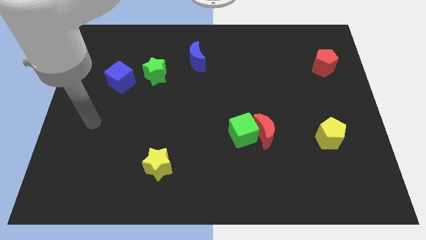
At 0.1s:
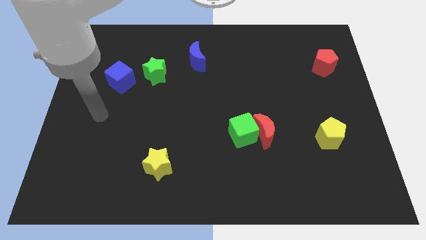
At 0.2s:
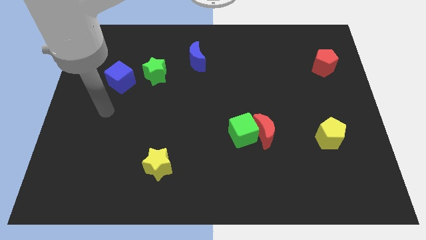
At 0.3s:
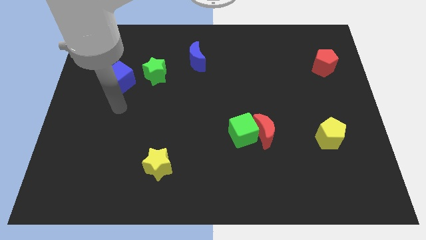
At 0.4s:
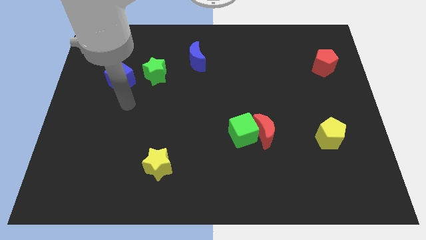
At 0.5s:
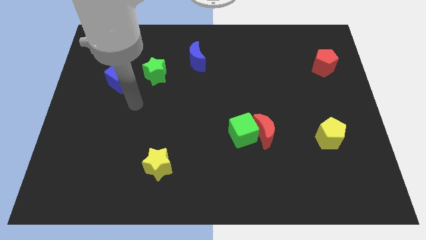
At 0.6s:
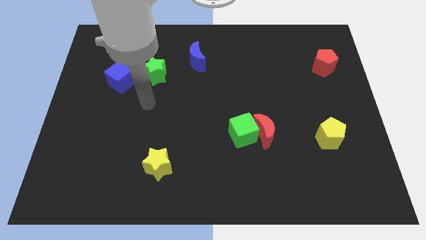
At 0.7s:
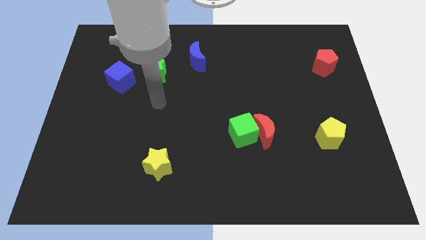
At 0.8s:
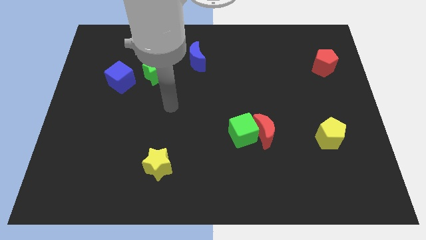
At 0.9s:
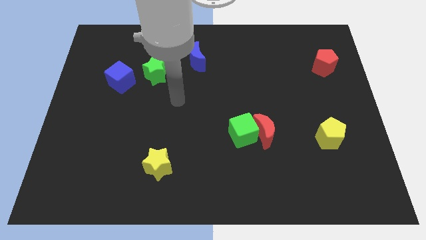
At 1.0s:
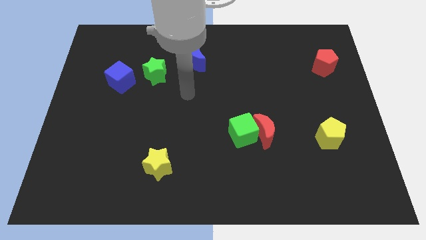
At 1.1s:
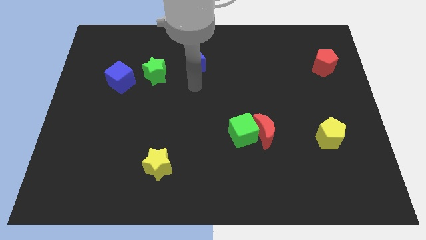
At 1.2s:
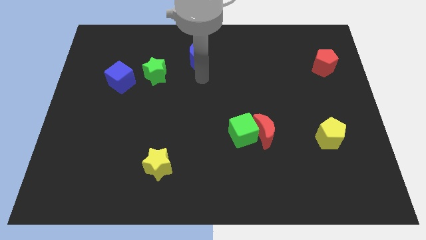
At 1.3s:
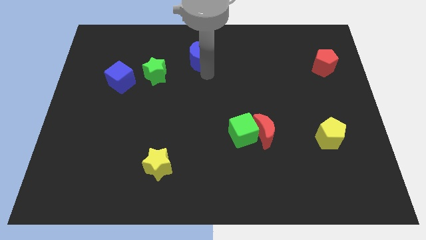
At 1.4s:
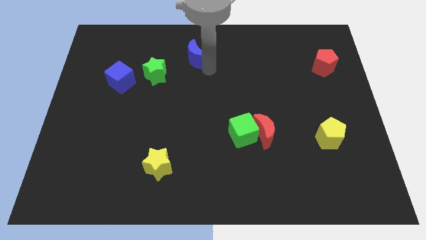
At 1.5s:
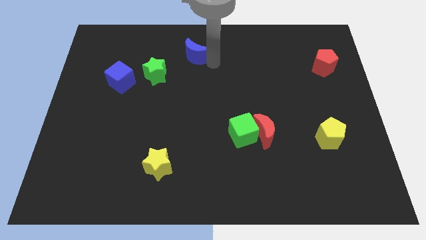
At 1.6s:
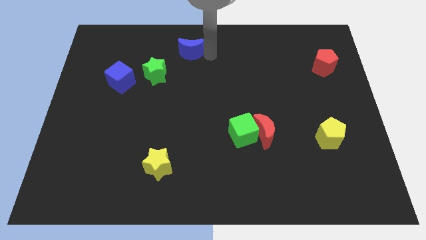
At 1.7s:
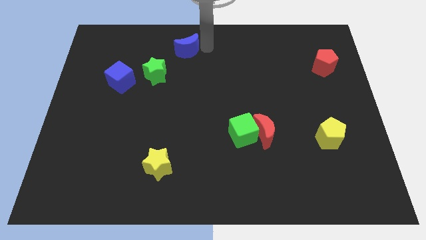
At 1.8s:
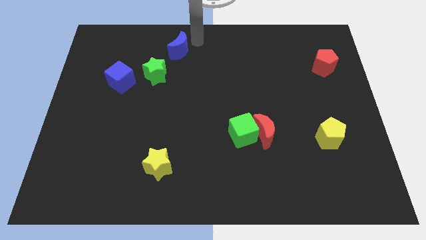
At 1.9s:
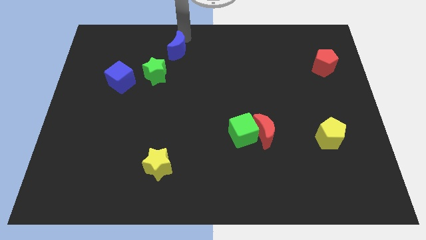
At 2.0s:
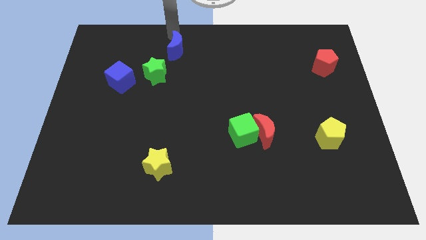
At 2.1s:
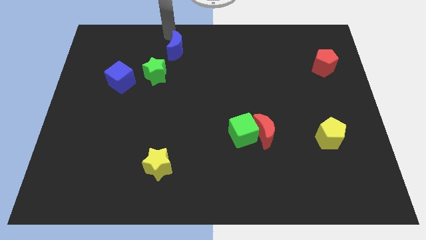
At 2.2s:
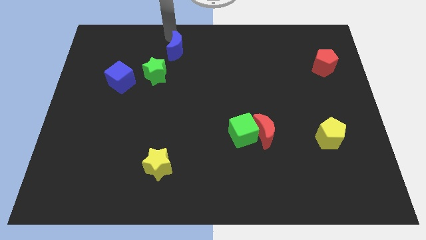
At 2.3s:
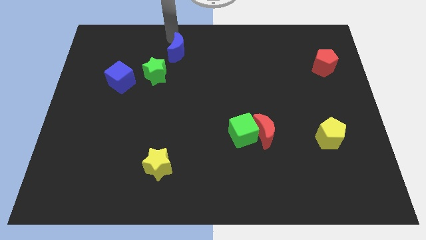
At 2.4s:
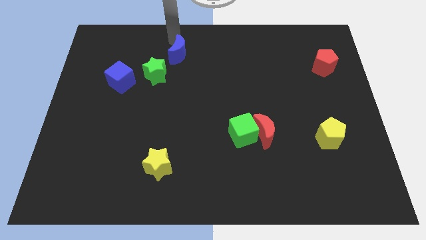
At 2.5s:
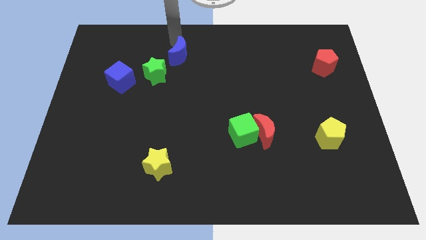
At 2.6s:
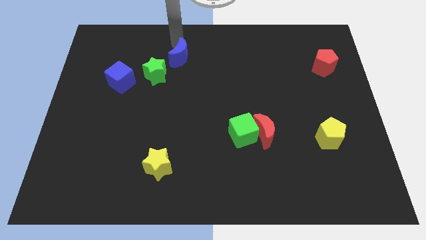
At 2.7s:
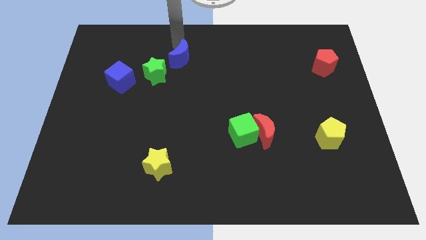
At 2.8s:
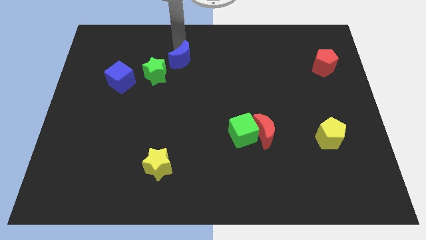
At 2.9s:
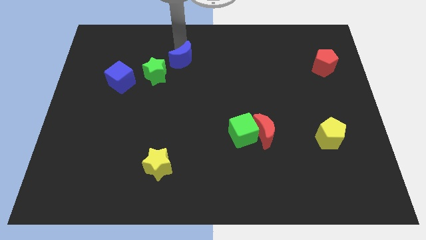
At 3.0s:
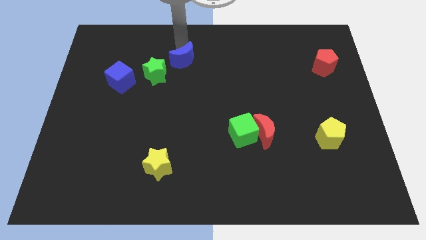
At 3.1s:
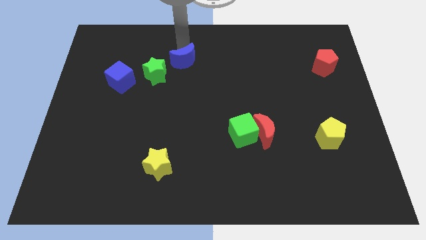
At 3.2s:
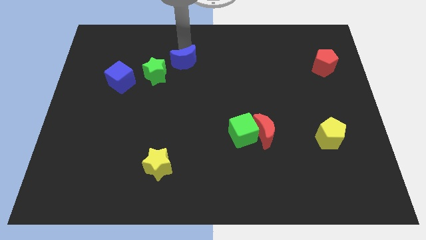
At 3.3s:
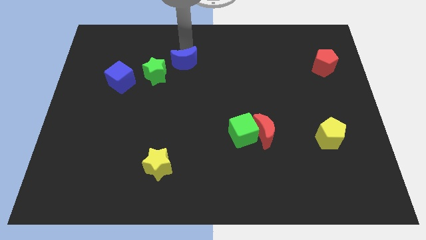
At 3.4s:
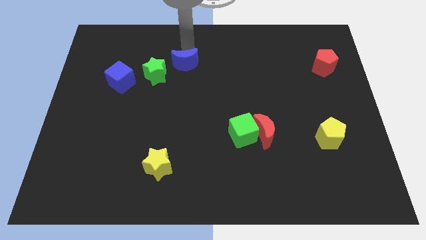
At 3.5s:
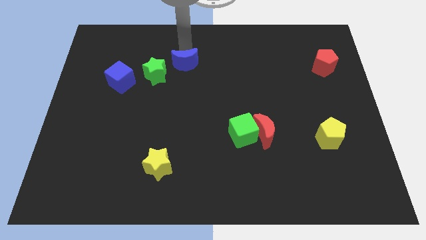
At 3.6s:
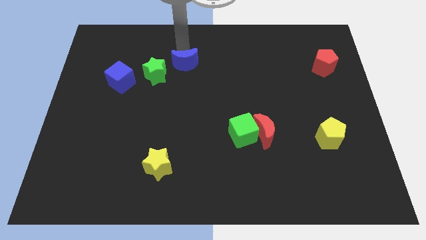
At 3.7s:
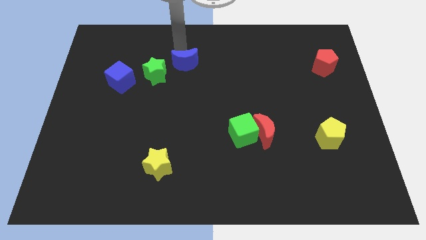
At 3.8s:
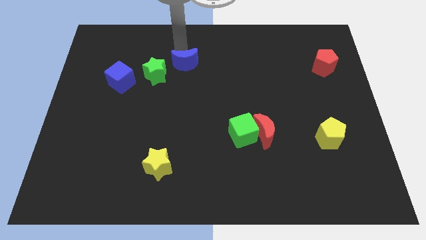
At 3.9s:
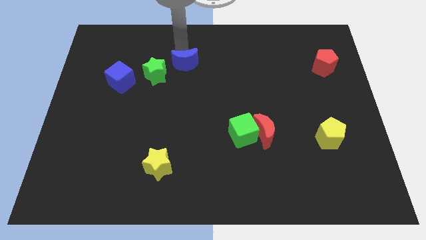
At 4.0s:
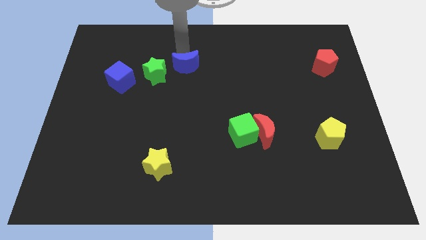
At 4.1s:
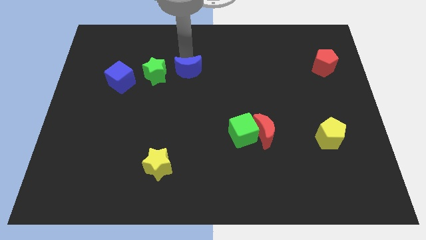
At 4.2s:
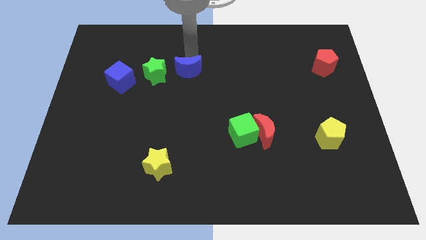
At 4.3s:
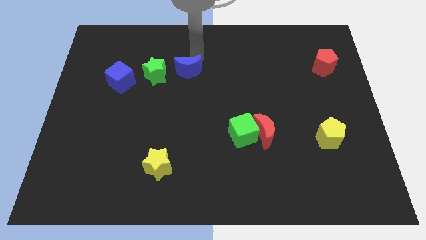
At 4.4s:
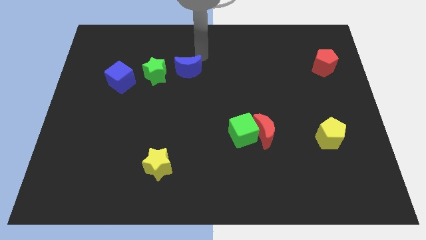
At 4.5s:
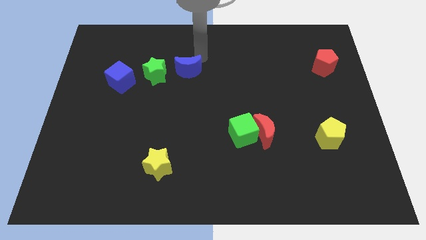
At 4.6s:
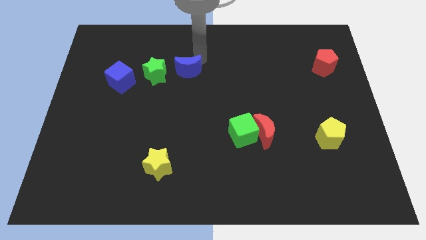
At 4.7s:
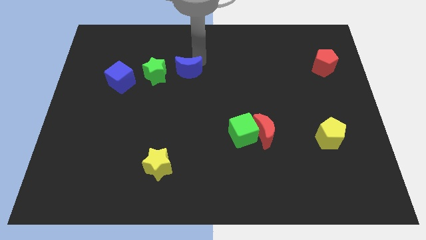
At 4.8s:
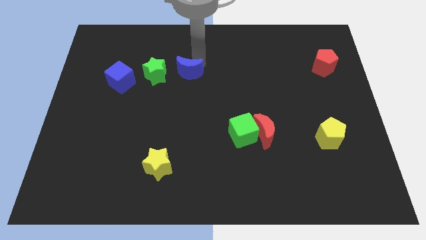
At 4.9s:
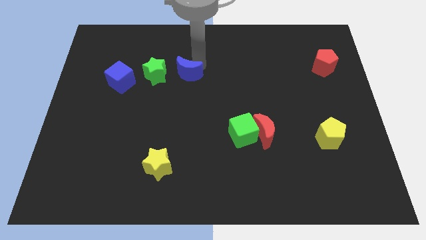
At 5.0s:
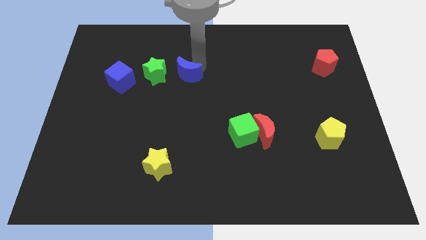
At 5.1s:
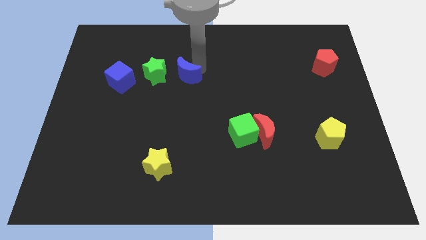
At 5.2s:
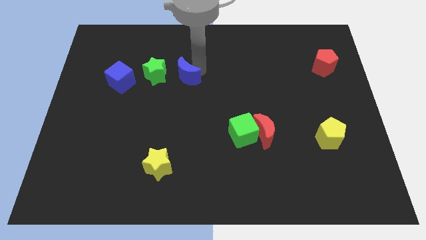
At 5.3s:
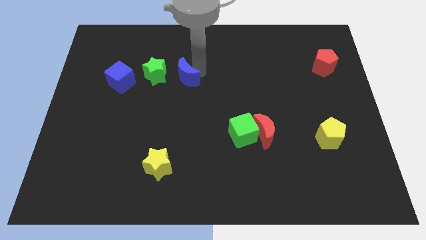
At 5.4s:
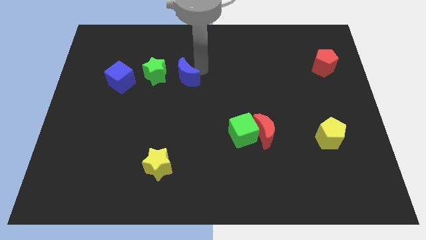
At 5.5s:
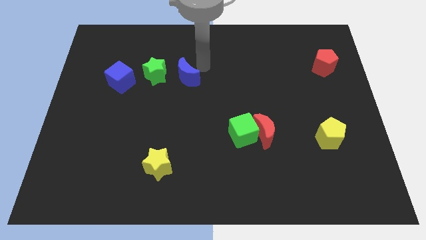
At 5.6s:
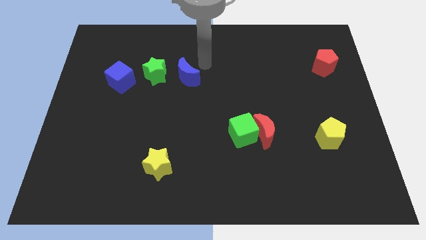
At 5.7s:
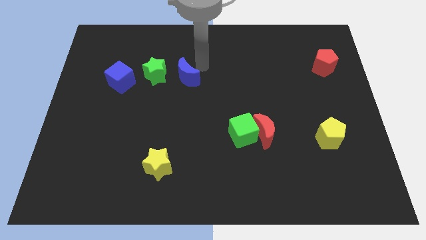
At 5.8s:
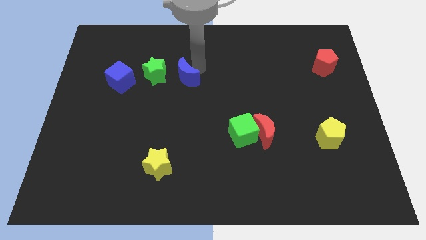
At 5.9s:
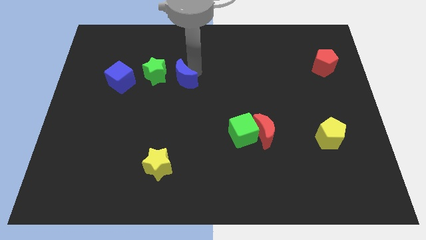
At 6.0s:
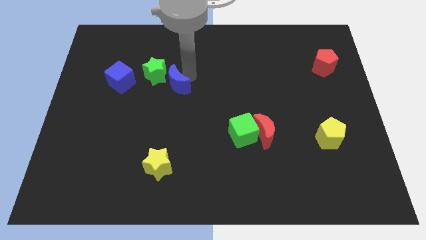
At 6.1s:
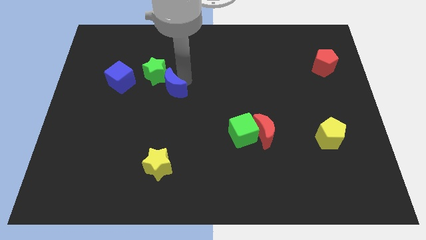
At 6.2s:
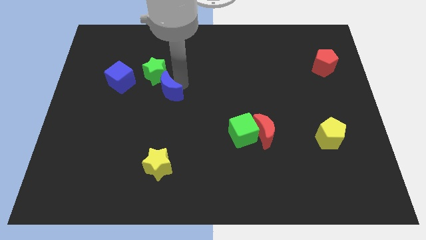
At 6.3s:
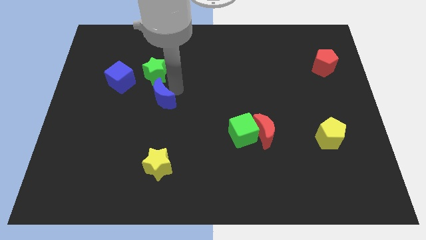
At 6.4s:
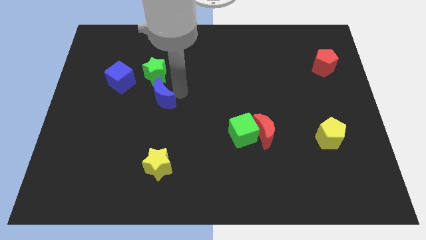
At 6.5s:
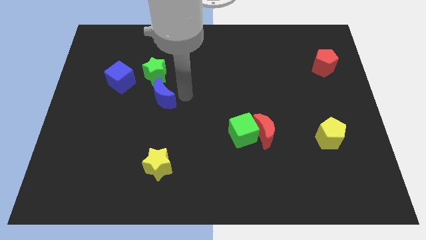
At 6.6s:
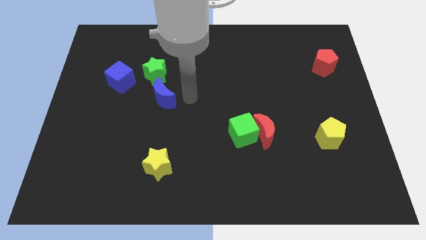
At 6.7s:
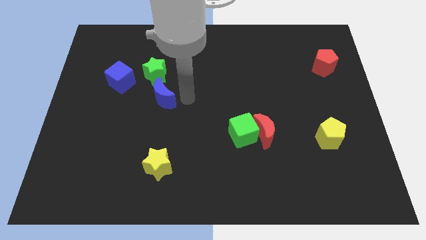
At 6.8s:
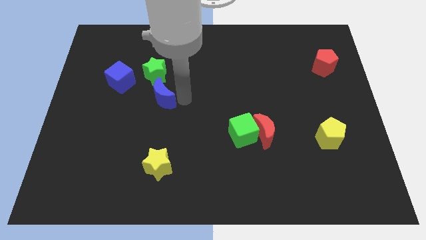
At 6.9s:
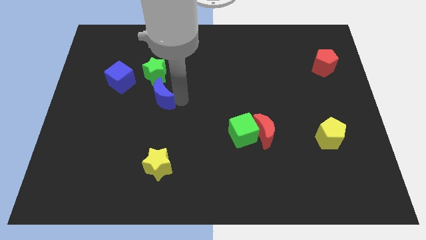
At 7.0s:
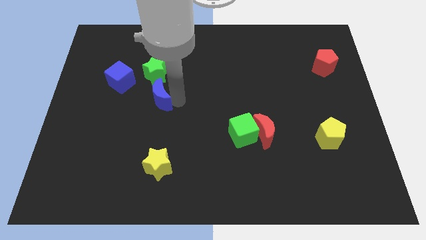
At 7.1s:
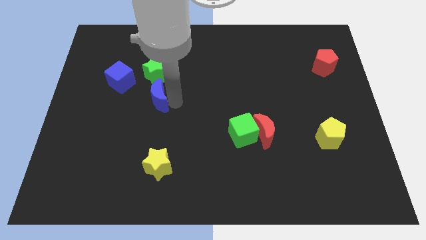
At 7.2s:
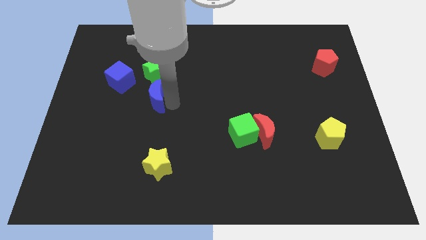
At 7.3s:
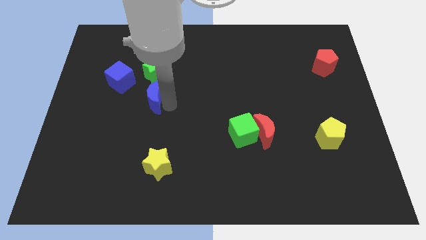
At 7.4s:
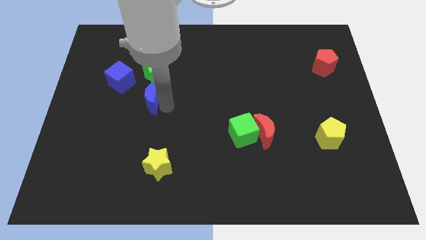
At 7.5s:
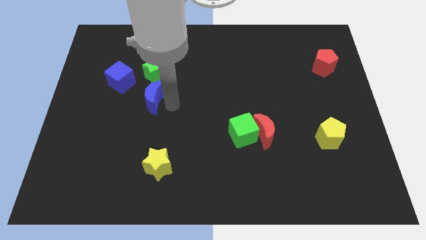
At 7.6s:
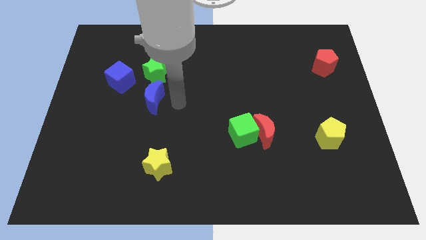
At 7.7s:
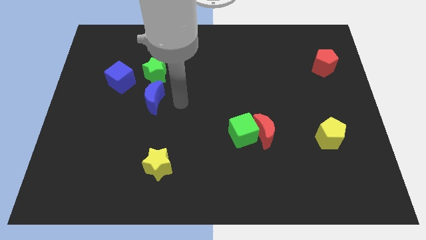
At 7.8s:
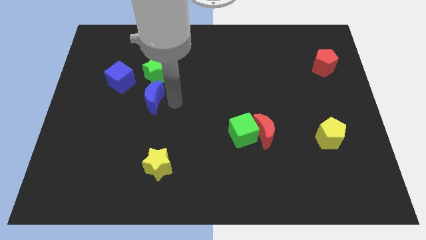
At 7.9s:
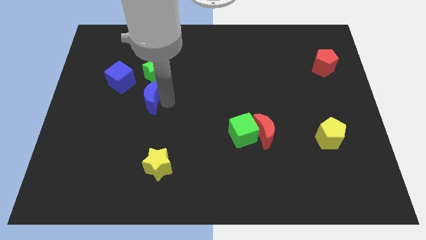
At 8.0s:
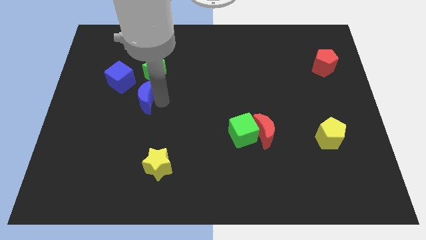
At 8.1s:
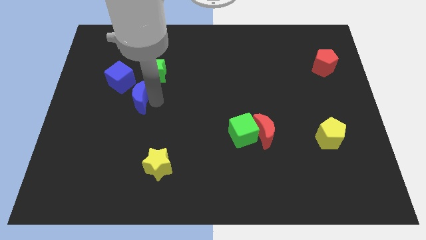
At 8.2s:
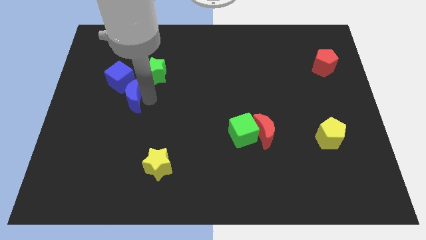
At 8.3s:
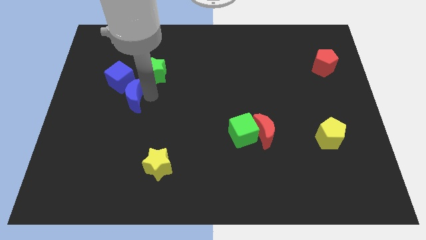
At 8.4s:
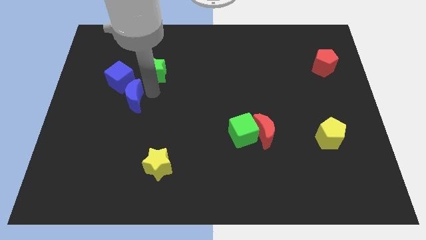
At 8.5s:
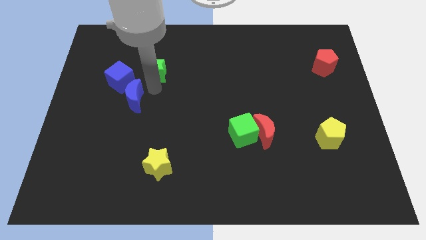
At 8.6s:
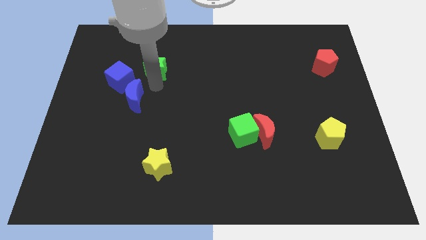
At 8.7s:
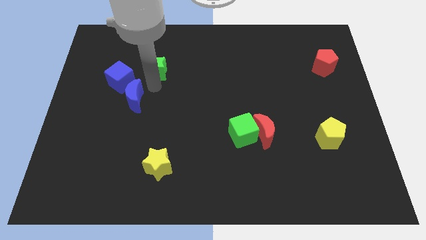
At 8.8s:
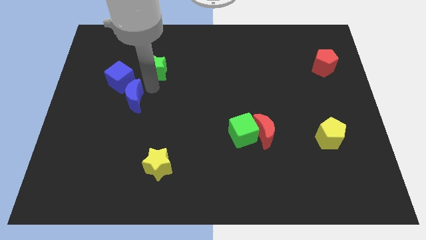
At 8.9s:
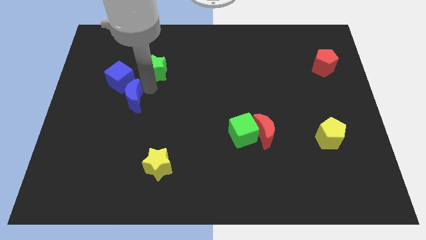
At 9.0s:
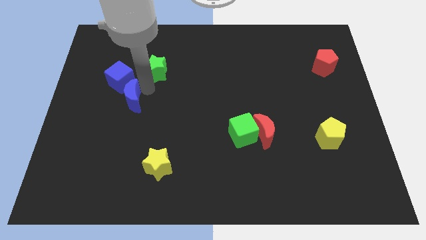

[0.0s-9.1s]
move the blue moon diagonally down and to the left
